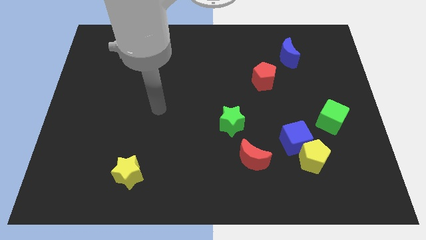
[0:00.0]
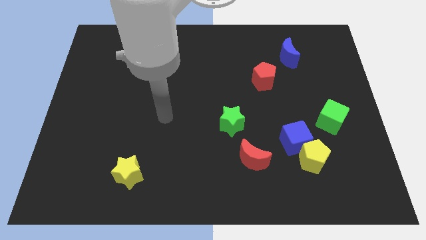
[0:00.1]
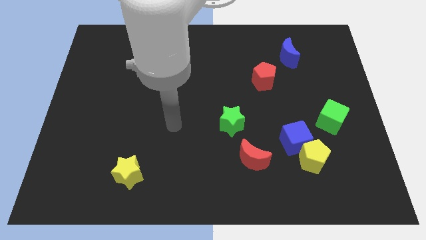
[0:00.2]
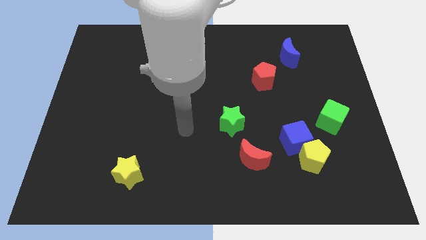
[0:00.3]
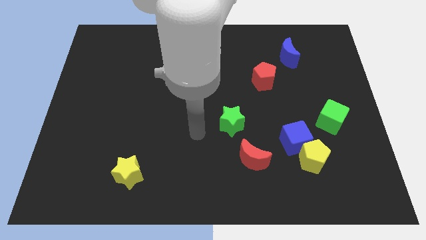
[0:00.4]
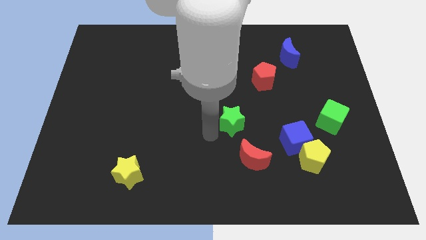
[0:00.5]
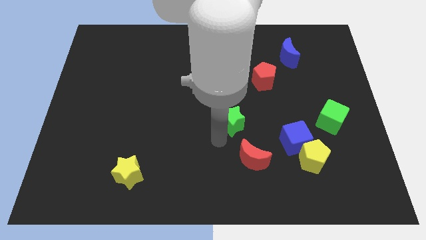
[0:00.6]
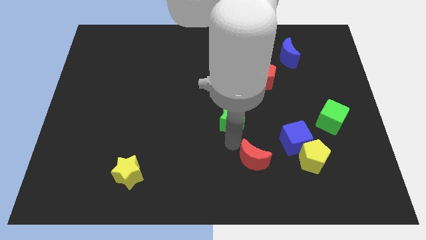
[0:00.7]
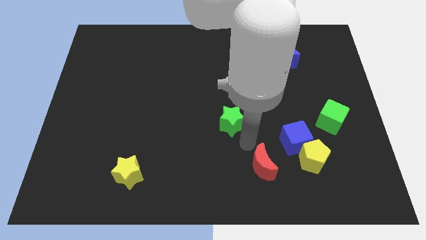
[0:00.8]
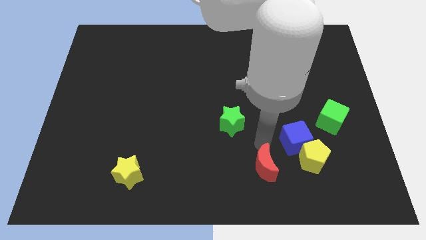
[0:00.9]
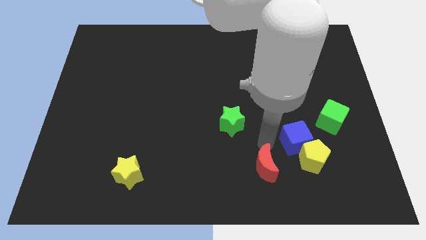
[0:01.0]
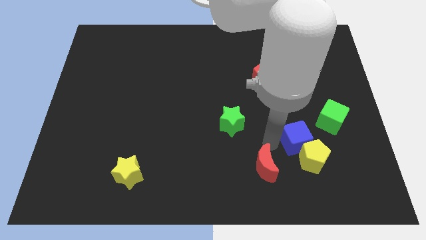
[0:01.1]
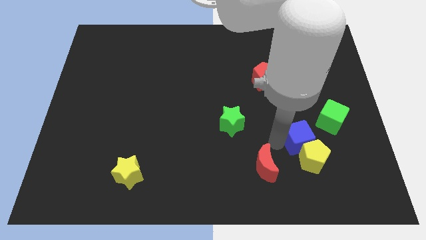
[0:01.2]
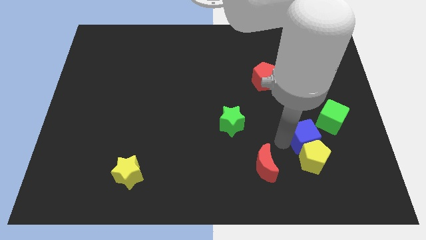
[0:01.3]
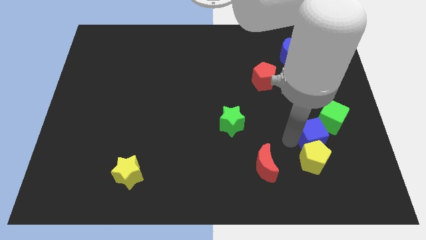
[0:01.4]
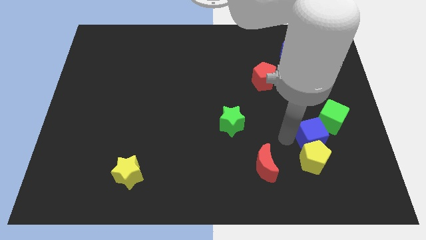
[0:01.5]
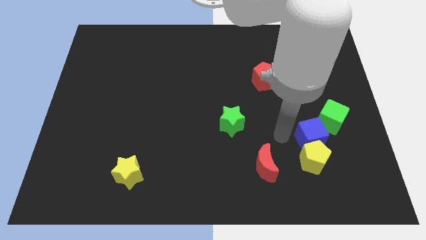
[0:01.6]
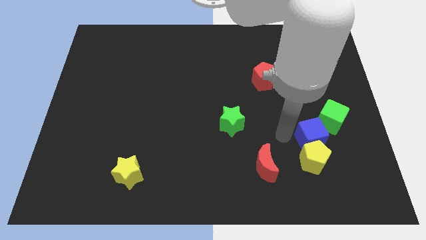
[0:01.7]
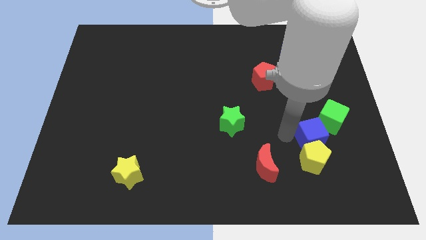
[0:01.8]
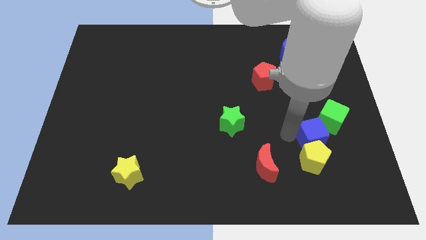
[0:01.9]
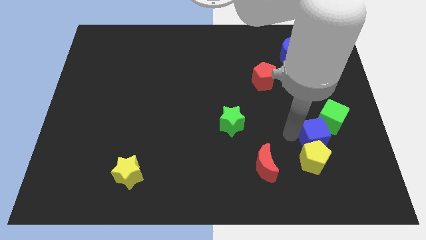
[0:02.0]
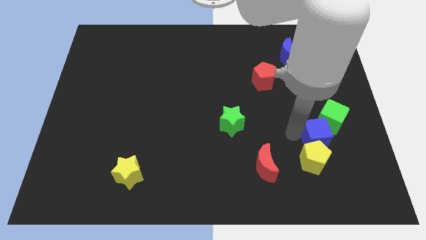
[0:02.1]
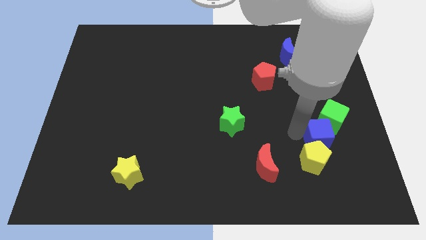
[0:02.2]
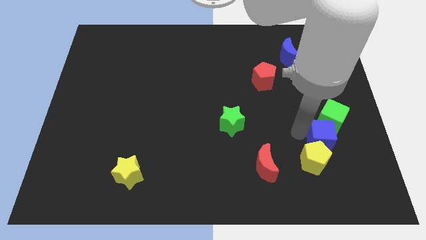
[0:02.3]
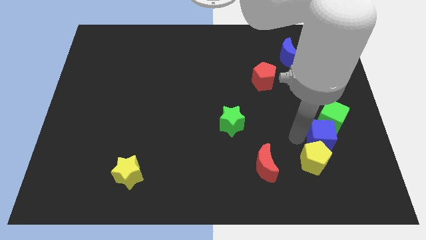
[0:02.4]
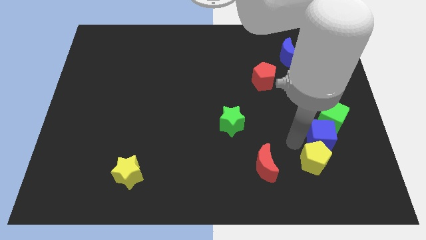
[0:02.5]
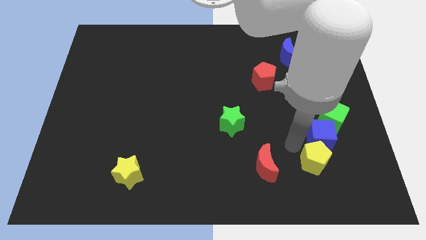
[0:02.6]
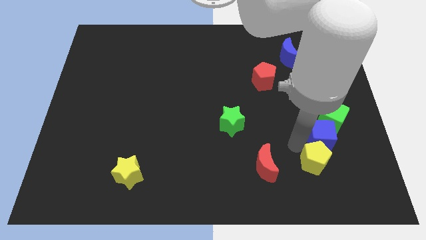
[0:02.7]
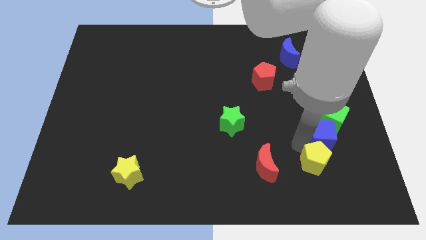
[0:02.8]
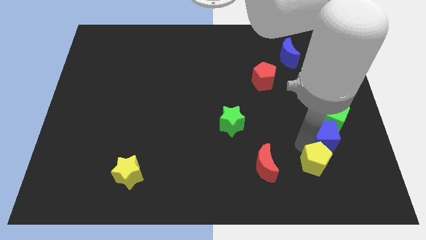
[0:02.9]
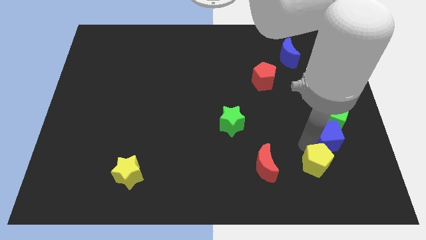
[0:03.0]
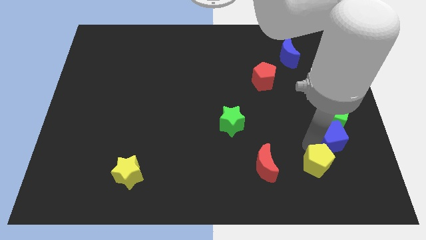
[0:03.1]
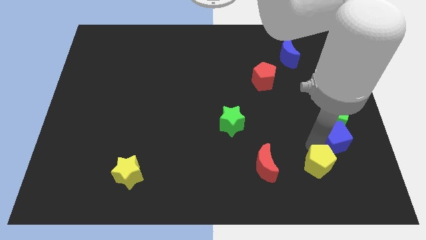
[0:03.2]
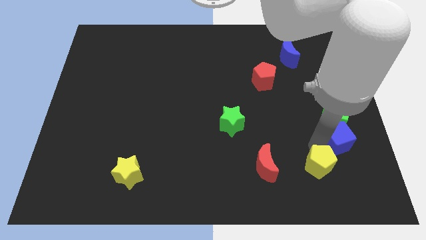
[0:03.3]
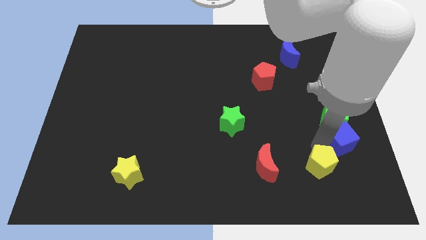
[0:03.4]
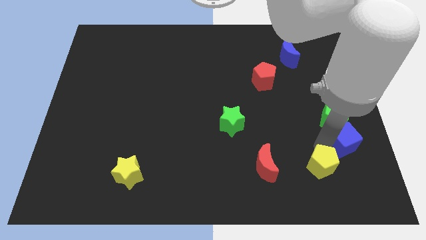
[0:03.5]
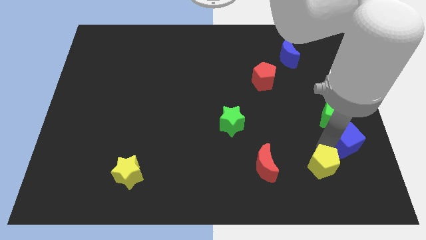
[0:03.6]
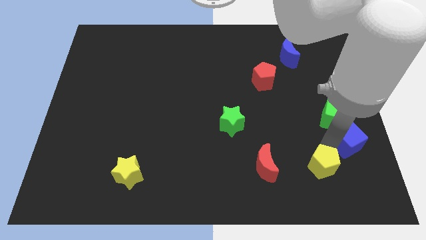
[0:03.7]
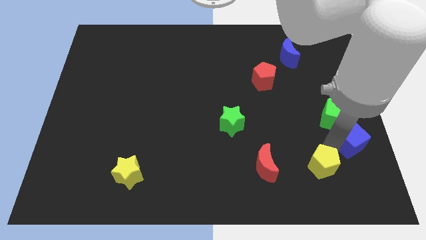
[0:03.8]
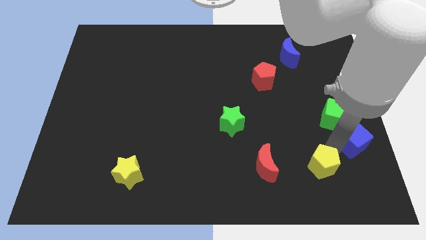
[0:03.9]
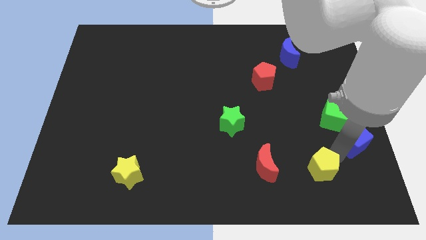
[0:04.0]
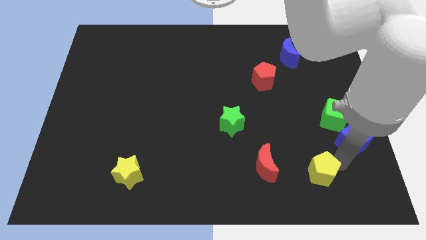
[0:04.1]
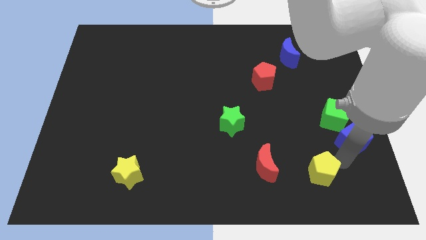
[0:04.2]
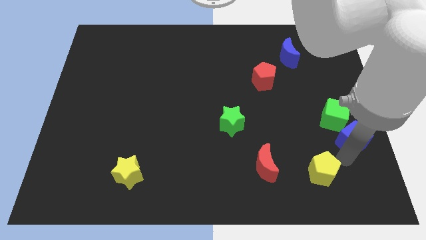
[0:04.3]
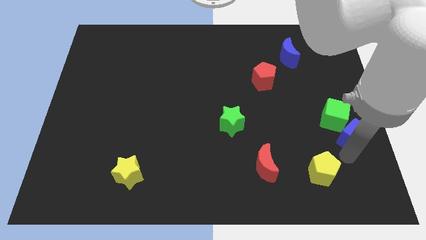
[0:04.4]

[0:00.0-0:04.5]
push the blue cube to the center right

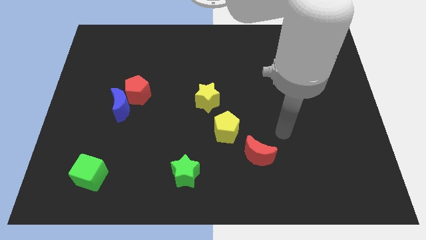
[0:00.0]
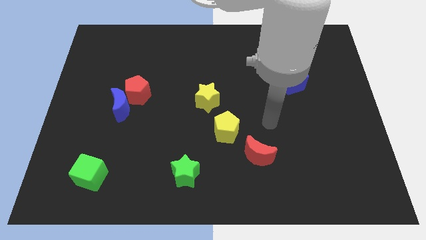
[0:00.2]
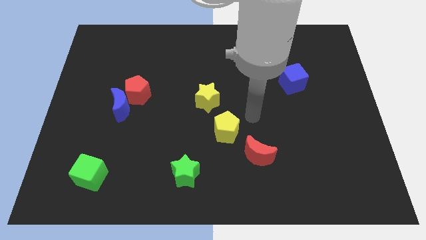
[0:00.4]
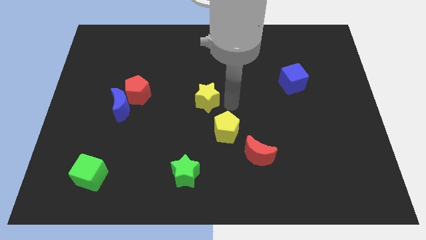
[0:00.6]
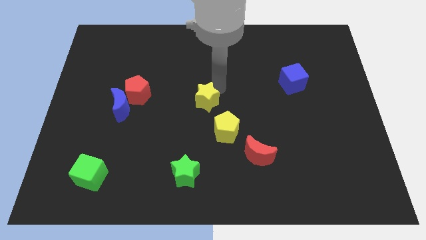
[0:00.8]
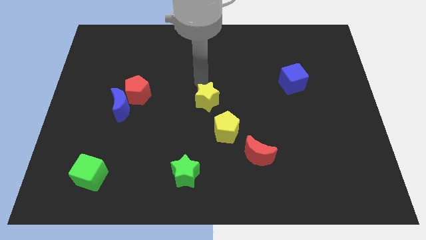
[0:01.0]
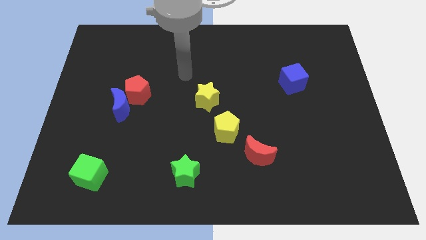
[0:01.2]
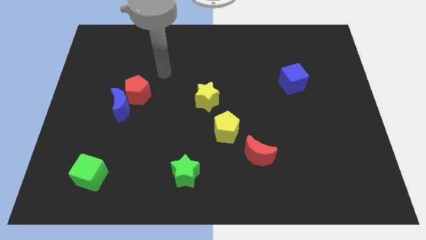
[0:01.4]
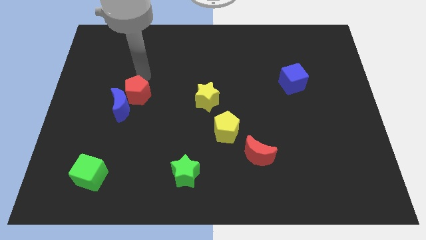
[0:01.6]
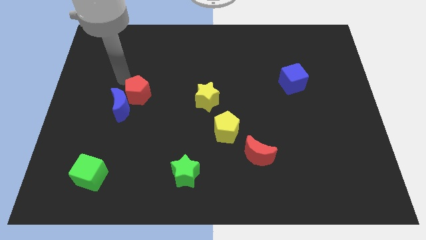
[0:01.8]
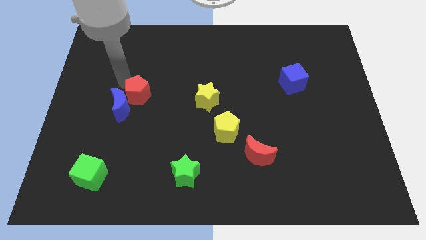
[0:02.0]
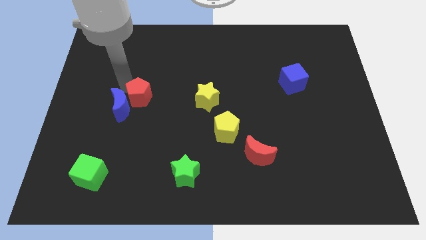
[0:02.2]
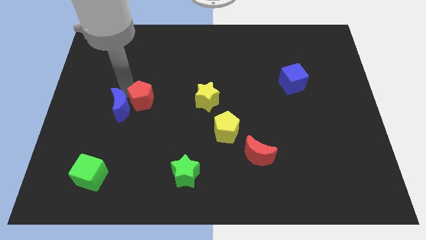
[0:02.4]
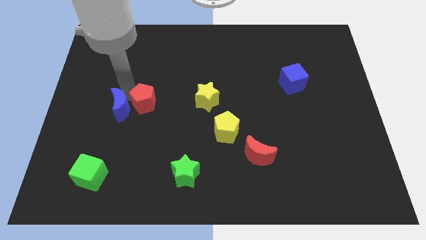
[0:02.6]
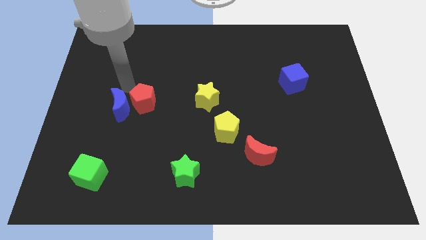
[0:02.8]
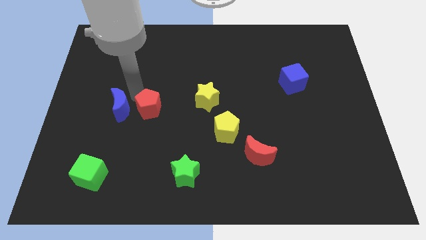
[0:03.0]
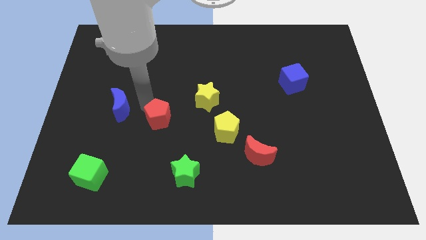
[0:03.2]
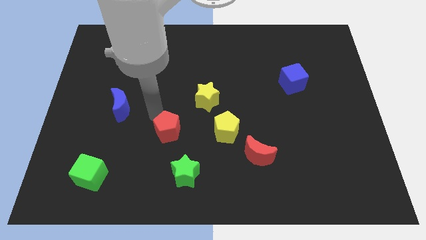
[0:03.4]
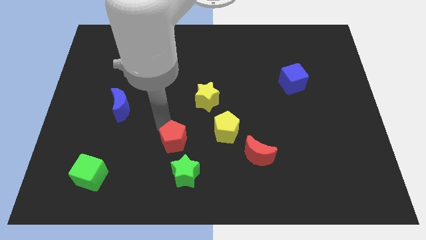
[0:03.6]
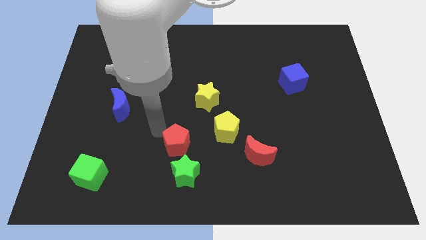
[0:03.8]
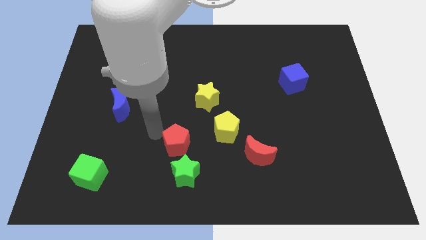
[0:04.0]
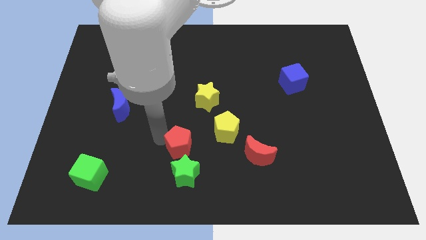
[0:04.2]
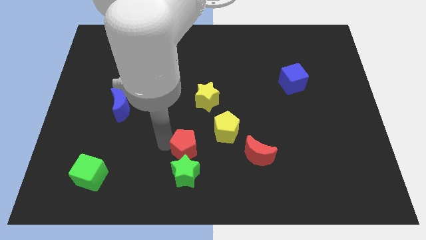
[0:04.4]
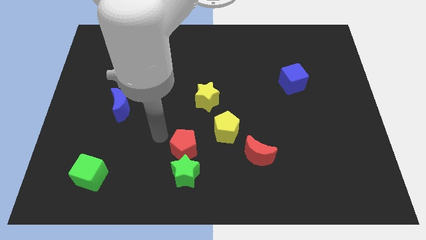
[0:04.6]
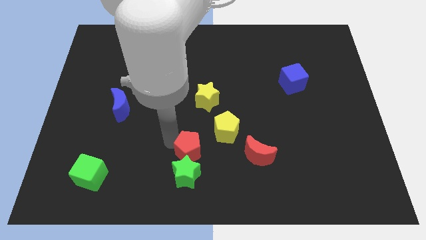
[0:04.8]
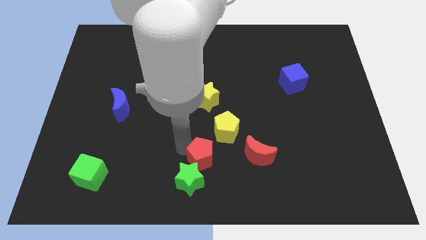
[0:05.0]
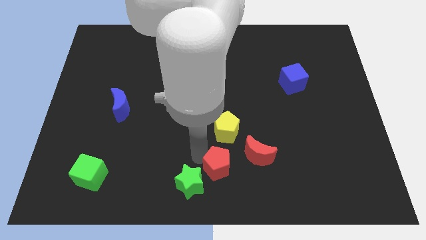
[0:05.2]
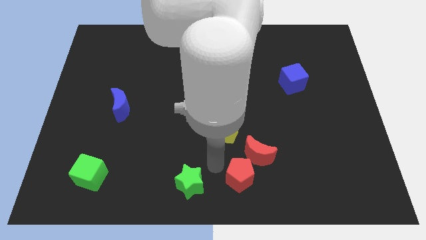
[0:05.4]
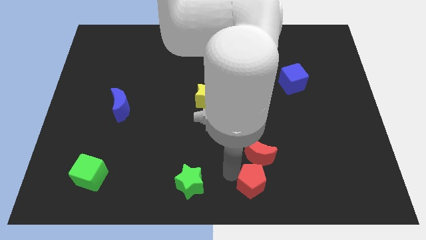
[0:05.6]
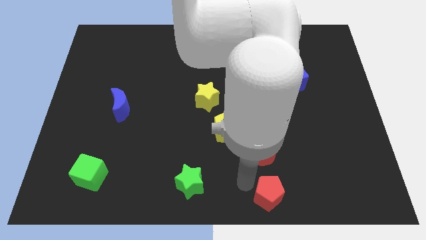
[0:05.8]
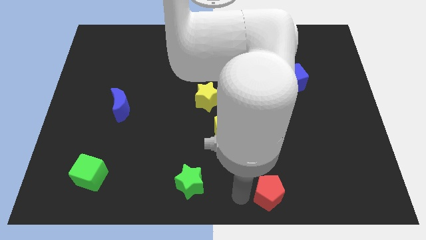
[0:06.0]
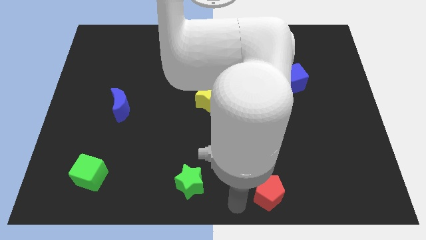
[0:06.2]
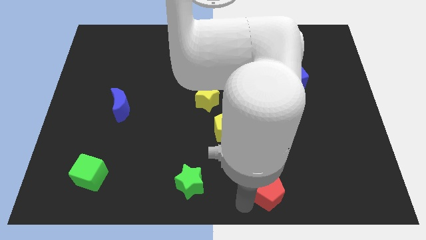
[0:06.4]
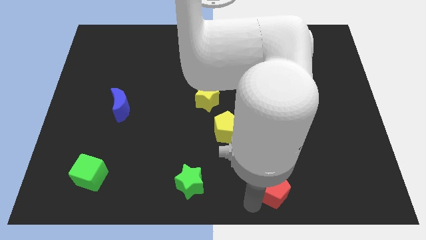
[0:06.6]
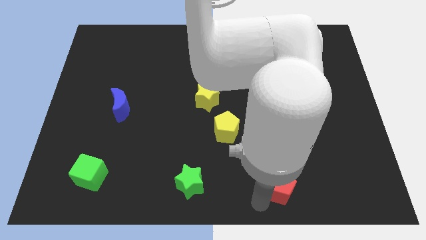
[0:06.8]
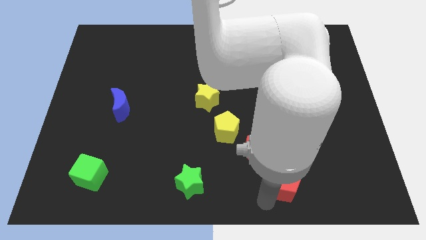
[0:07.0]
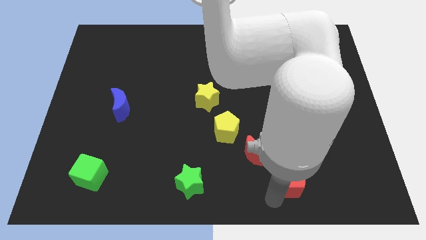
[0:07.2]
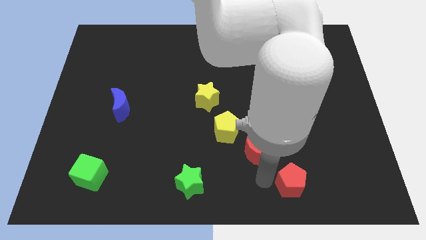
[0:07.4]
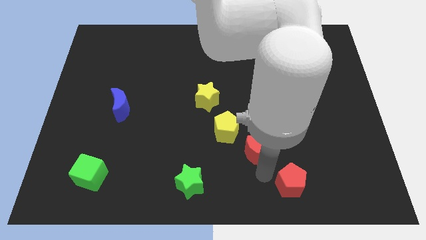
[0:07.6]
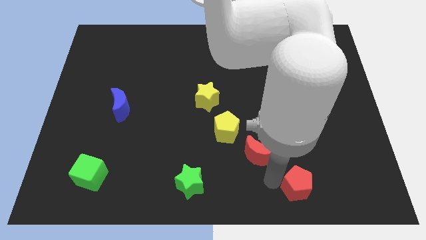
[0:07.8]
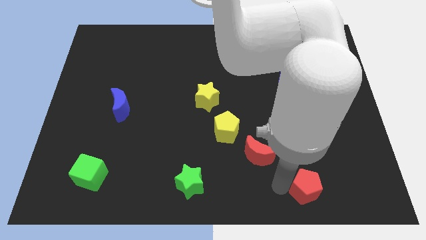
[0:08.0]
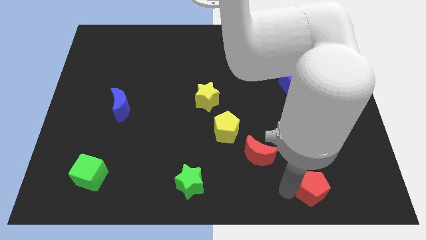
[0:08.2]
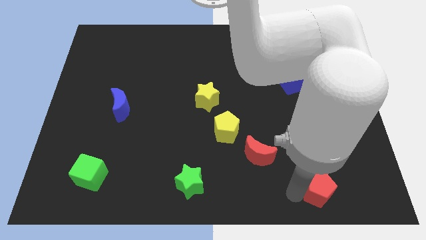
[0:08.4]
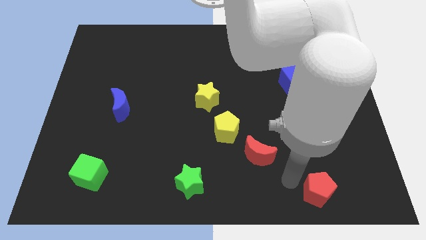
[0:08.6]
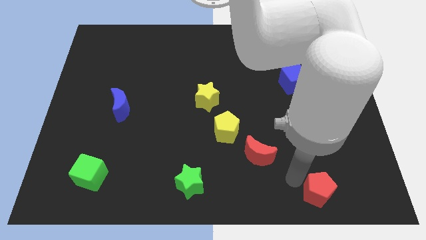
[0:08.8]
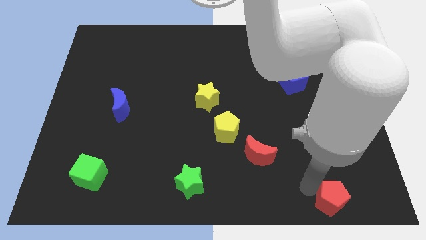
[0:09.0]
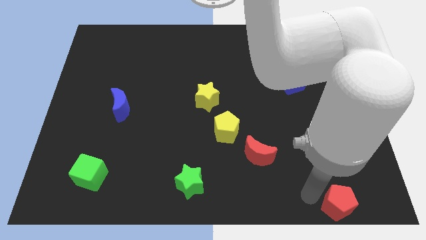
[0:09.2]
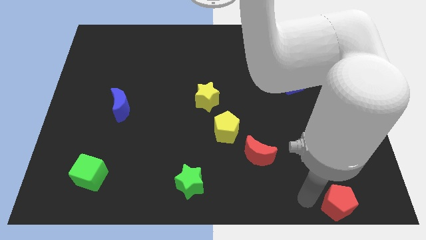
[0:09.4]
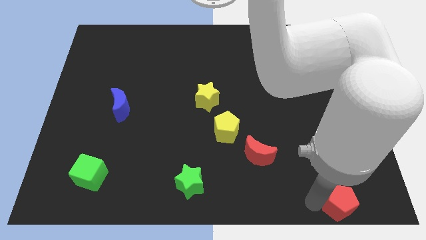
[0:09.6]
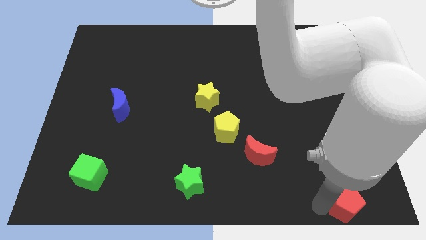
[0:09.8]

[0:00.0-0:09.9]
move the red pentagon to the bottom right of the board
